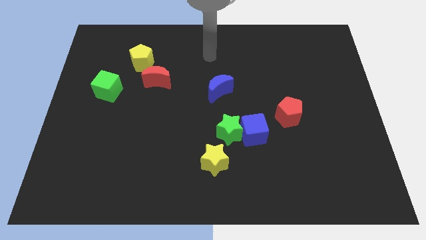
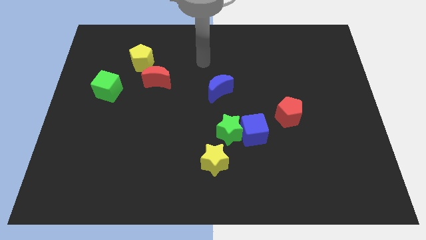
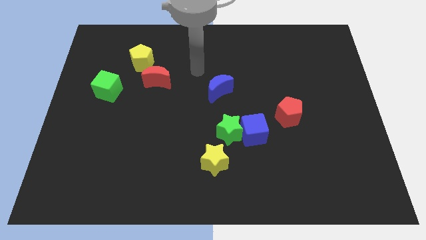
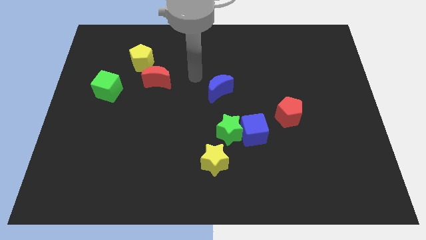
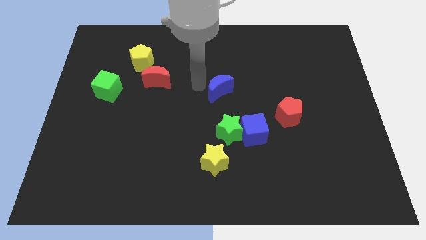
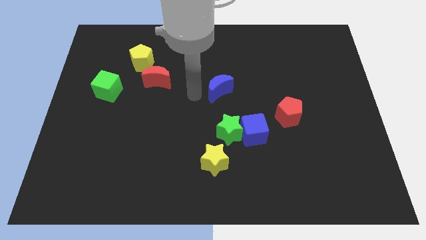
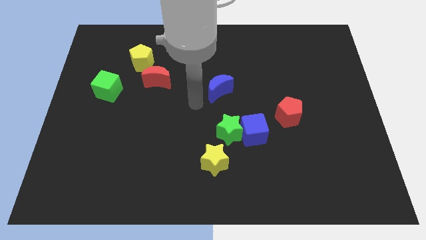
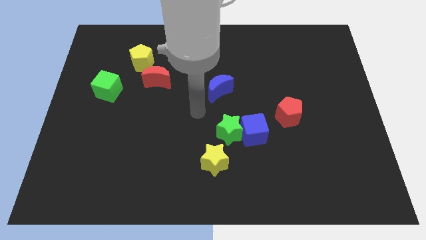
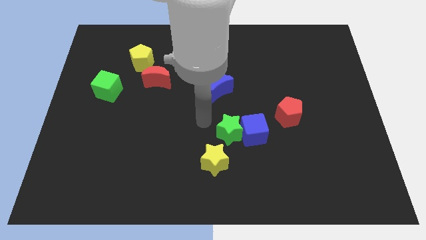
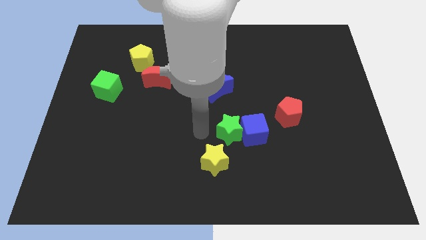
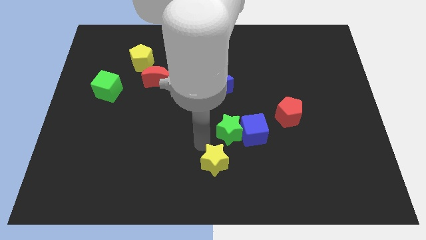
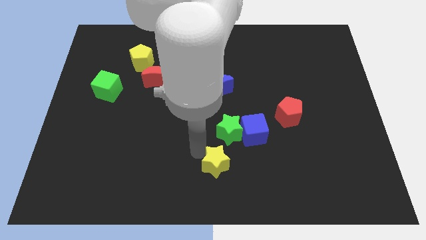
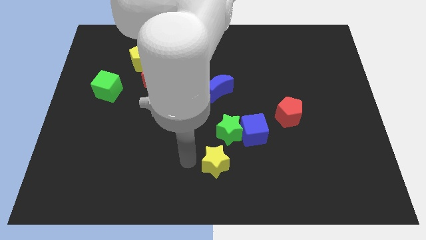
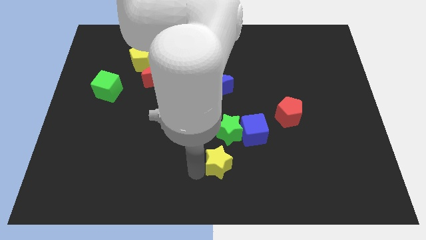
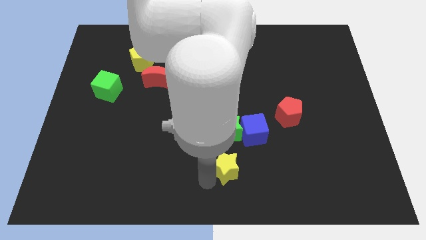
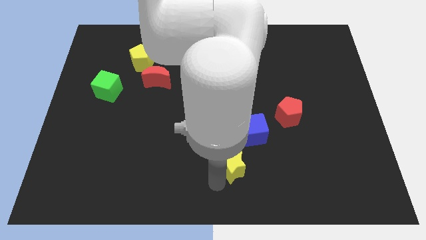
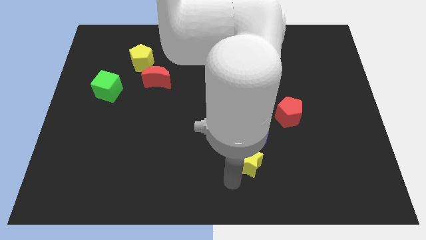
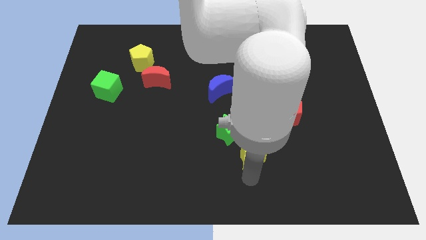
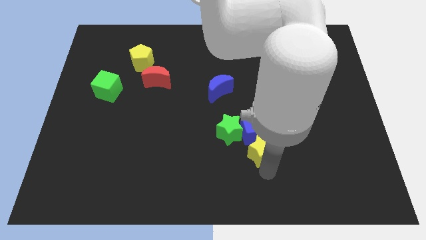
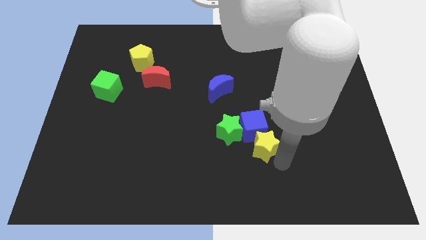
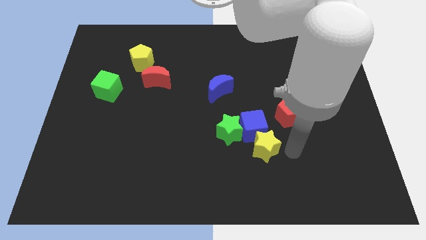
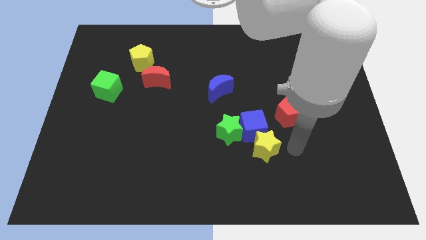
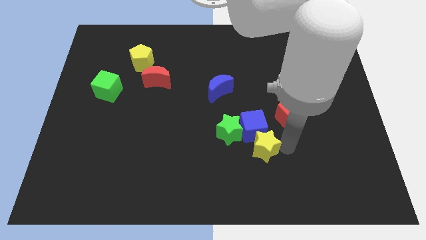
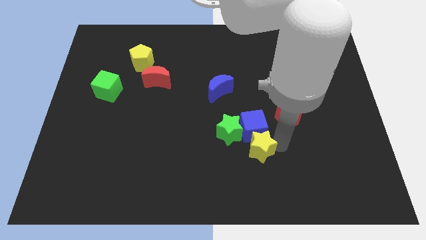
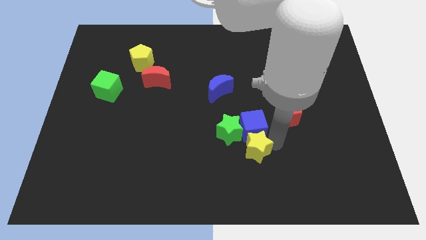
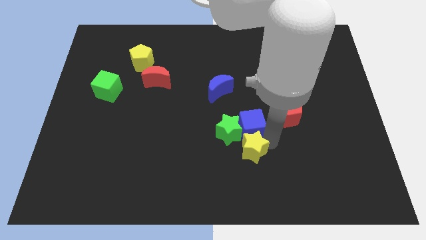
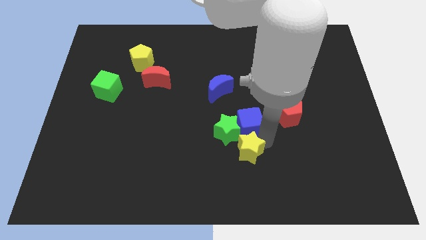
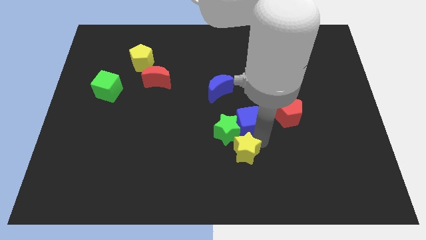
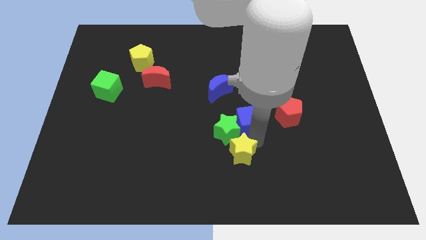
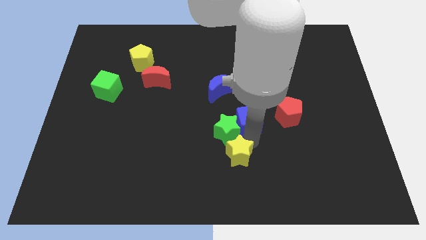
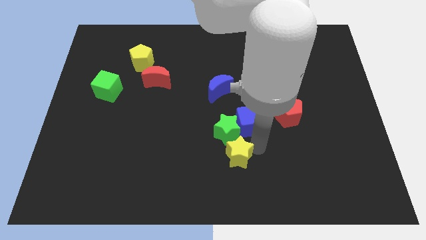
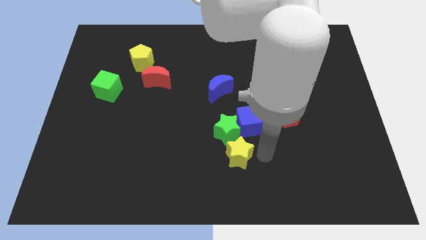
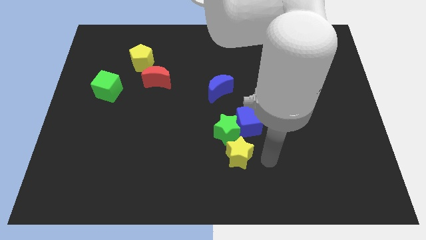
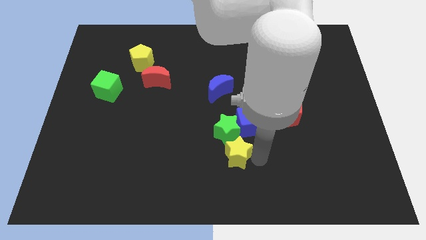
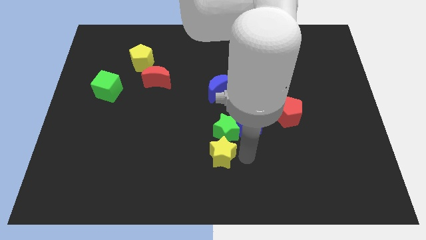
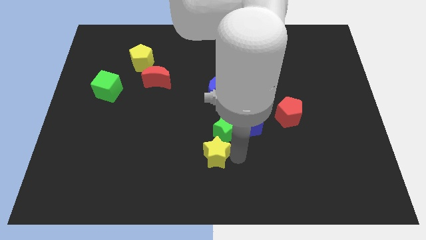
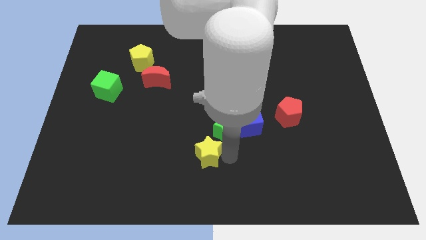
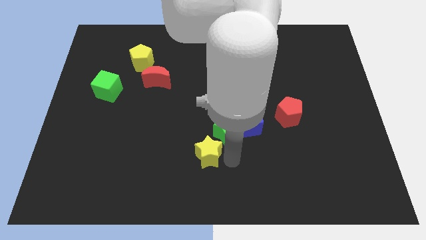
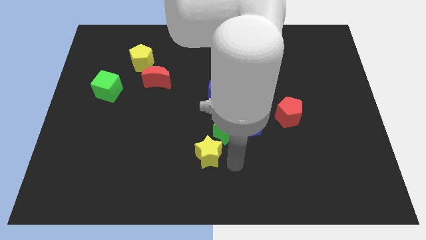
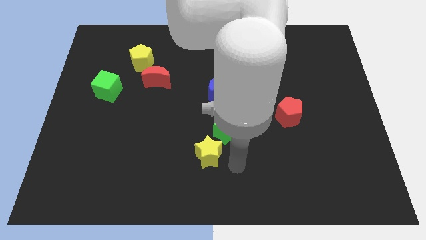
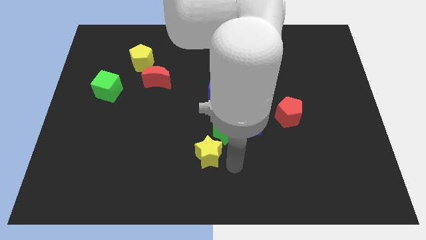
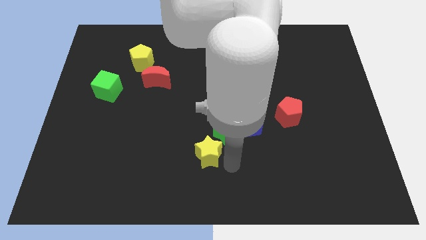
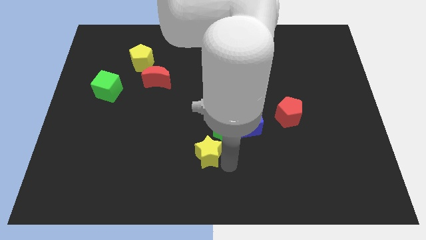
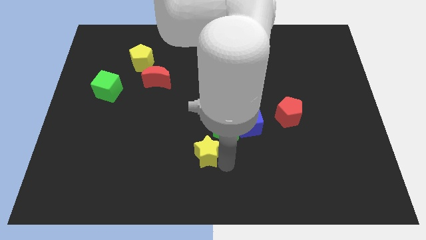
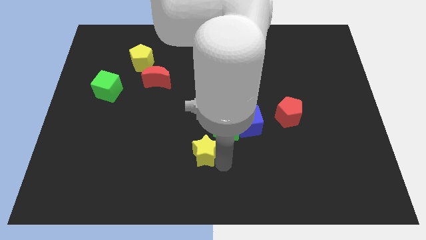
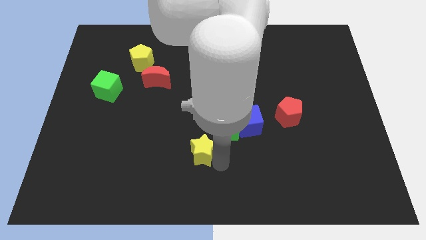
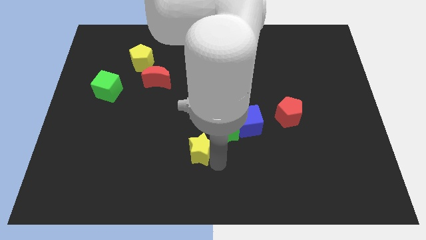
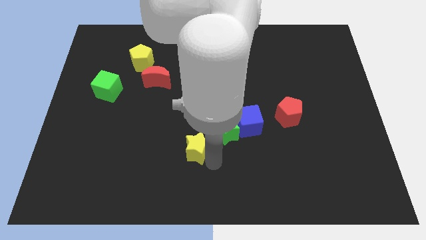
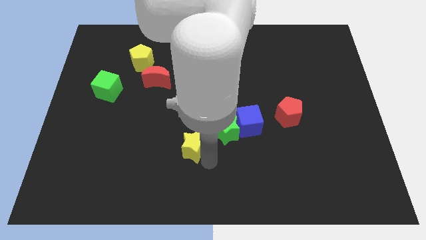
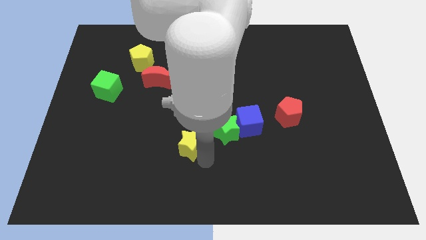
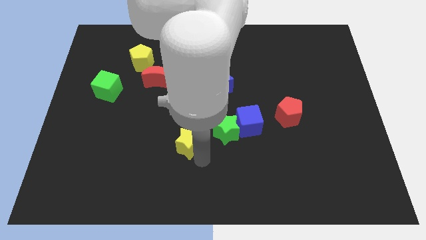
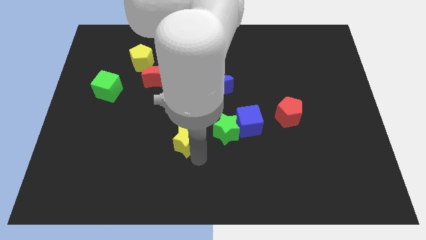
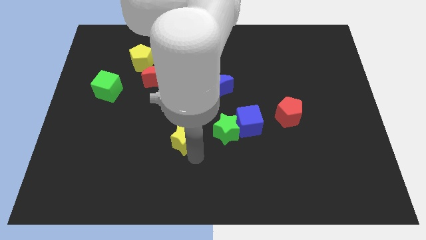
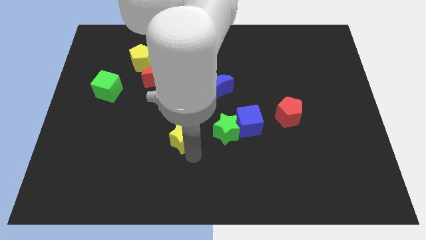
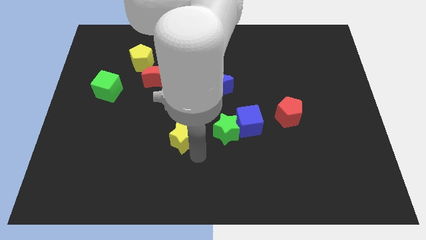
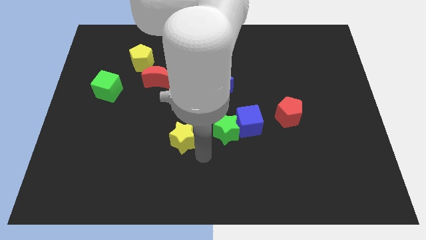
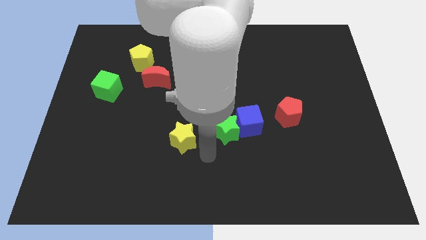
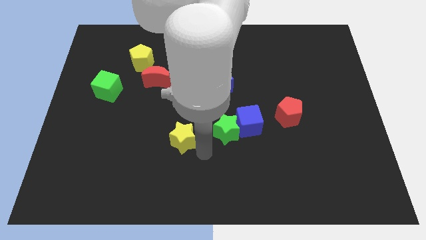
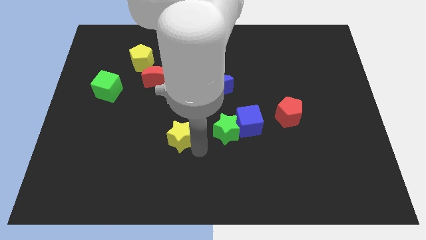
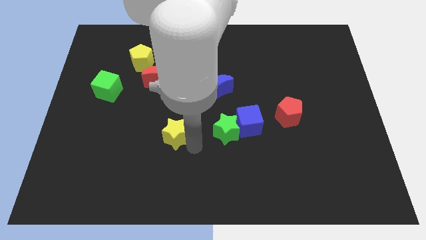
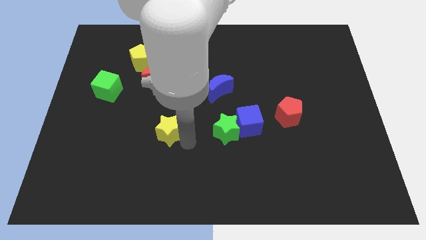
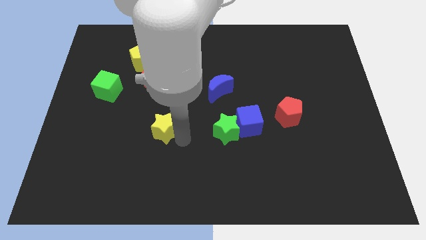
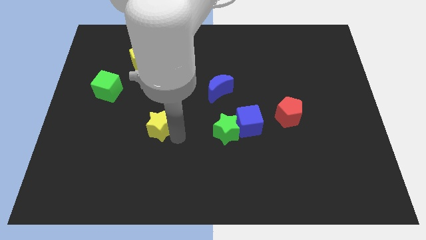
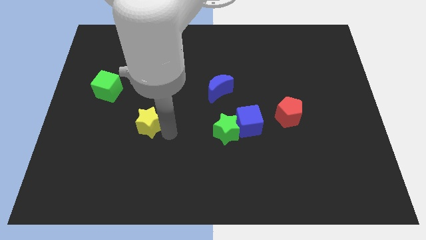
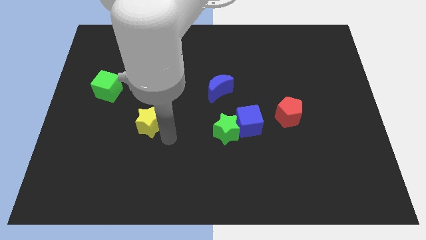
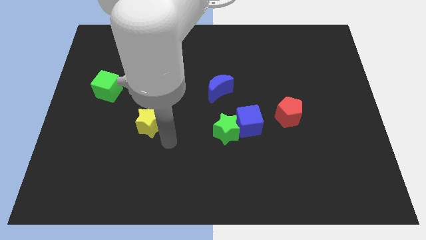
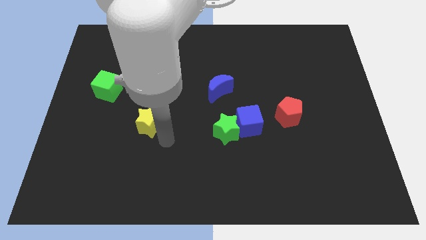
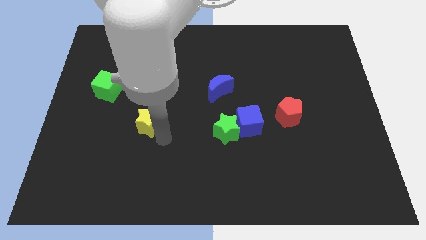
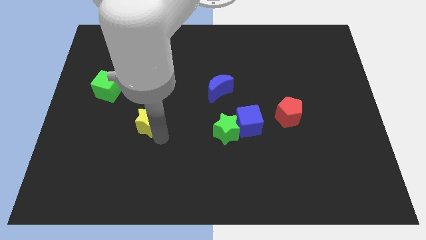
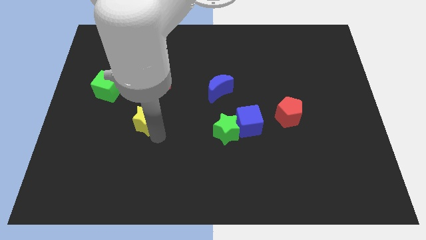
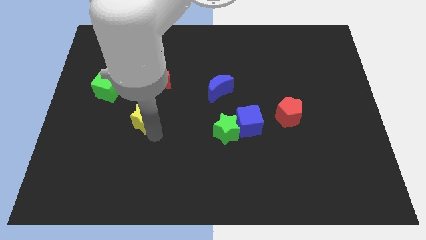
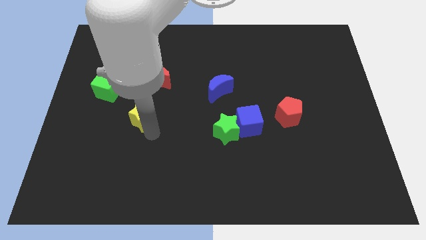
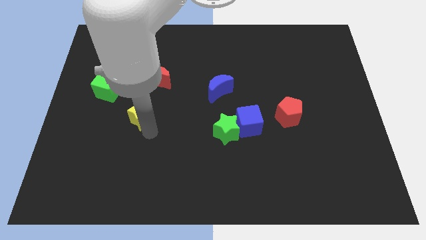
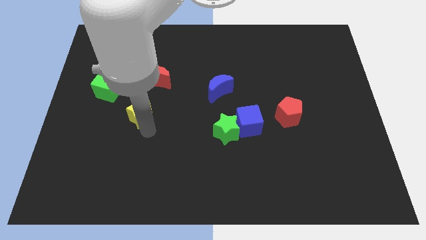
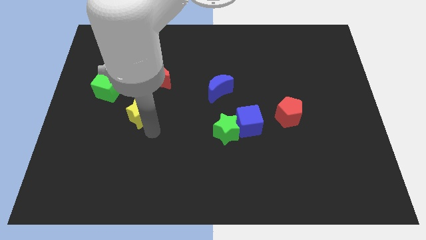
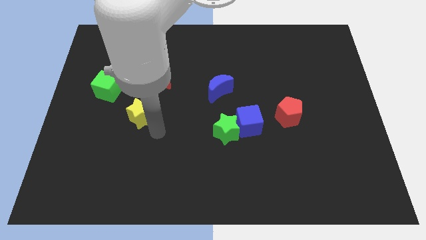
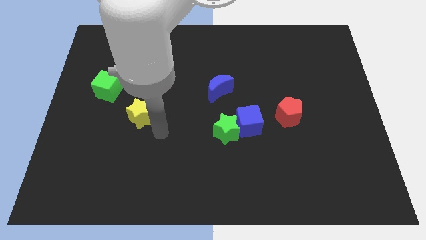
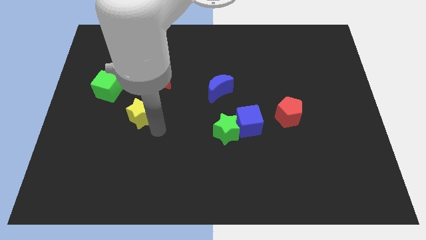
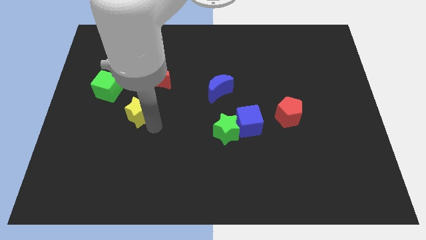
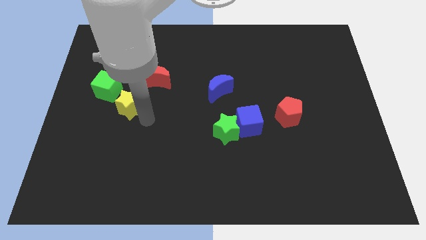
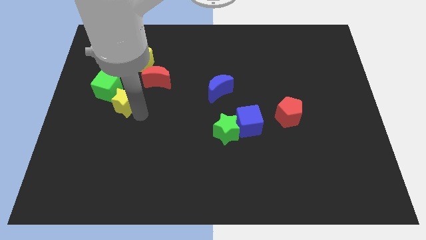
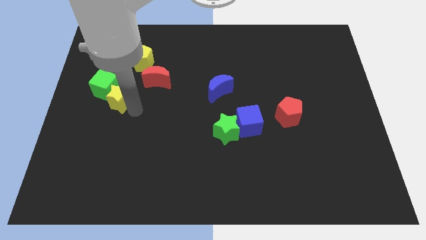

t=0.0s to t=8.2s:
move the yellow star next to the green cube
